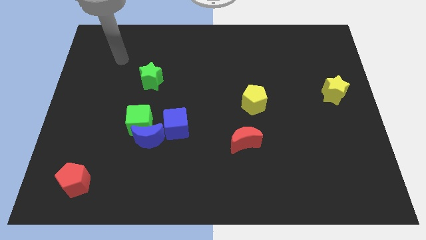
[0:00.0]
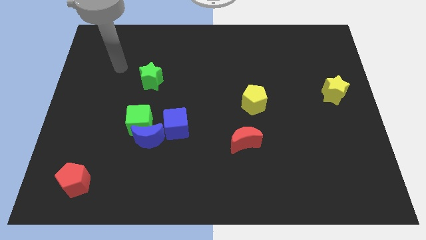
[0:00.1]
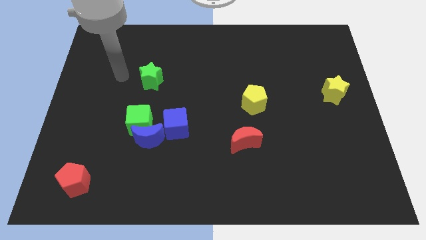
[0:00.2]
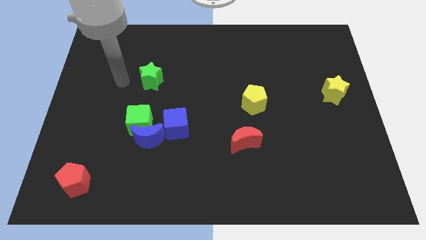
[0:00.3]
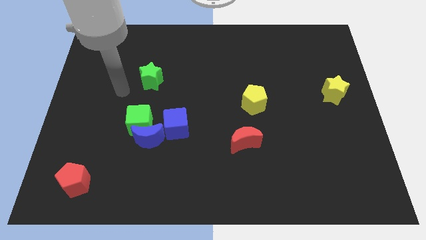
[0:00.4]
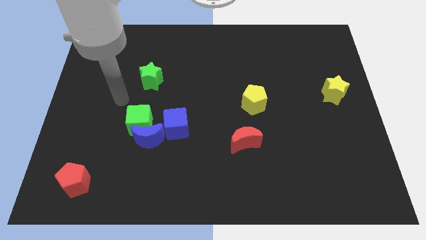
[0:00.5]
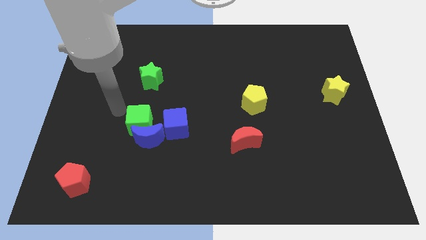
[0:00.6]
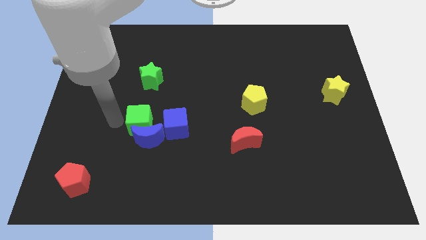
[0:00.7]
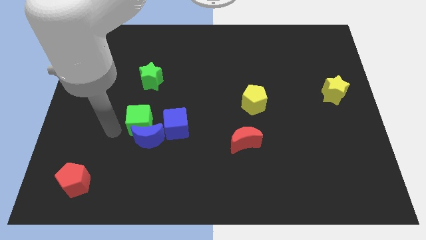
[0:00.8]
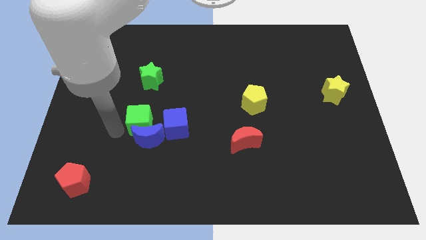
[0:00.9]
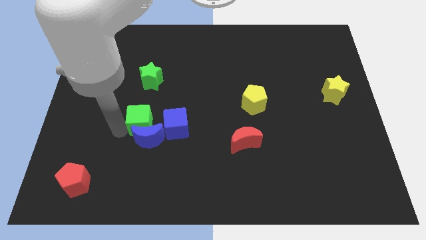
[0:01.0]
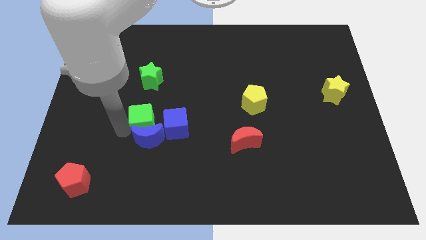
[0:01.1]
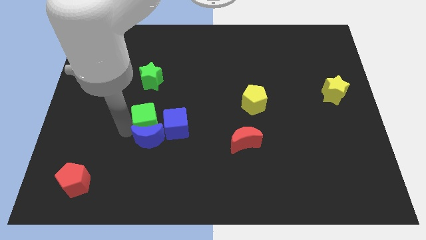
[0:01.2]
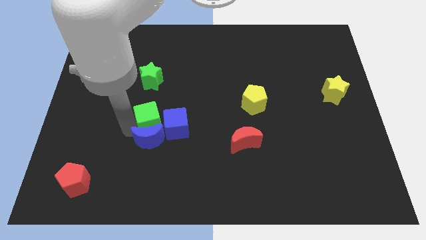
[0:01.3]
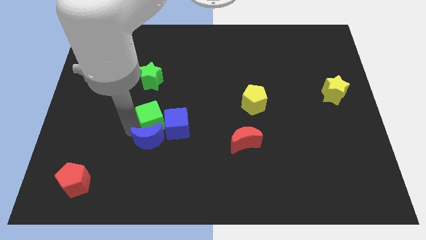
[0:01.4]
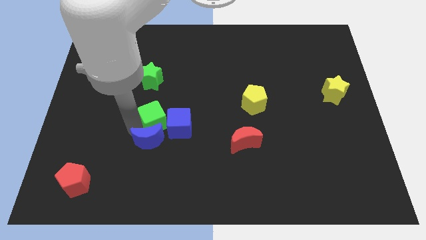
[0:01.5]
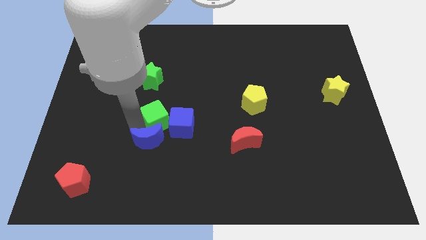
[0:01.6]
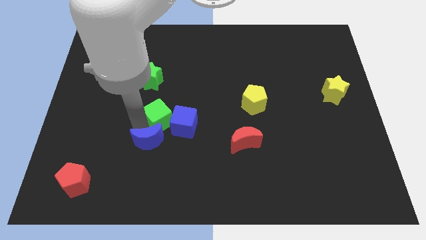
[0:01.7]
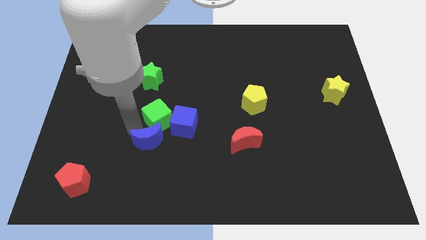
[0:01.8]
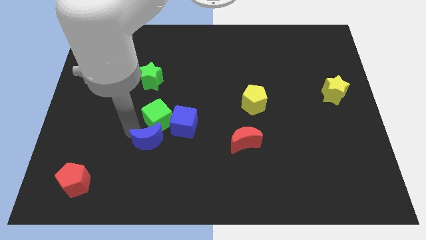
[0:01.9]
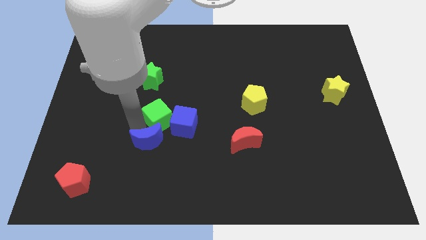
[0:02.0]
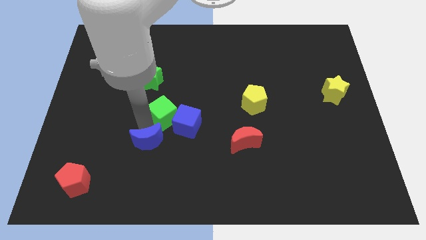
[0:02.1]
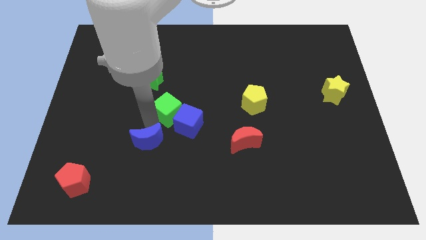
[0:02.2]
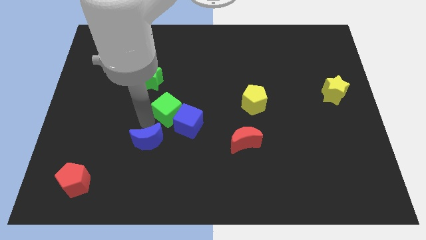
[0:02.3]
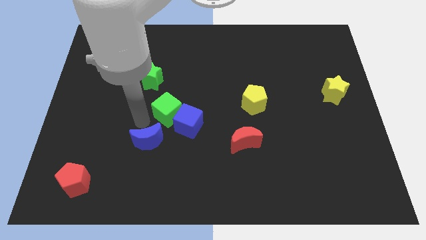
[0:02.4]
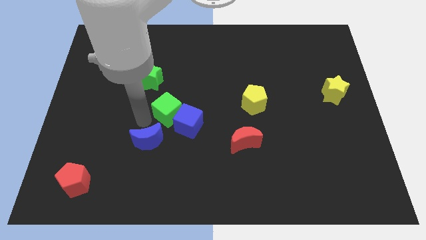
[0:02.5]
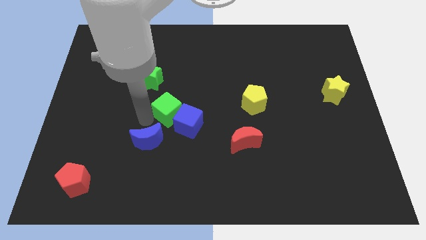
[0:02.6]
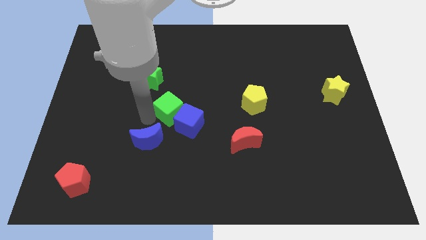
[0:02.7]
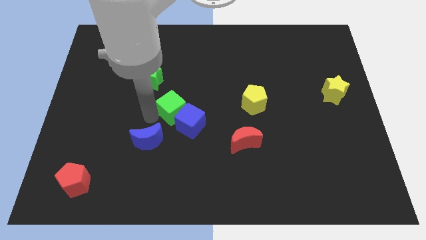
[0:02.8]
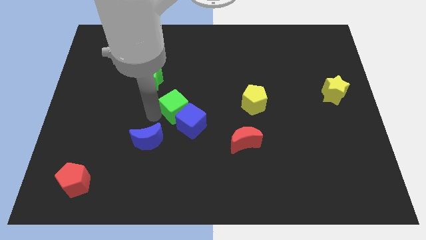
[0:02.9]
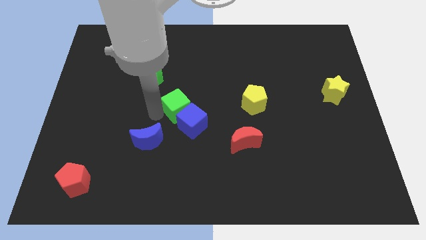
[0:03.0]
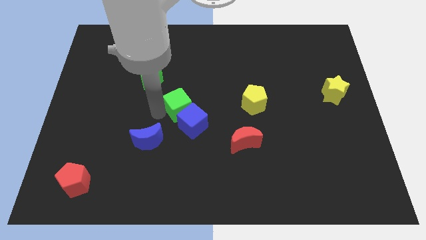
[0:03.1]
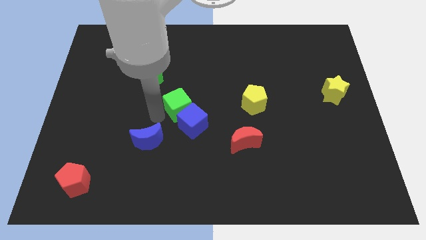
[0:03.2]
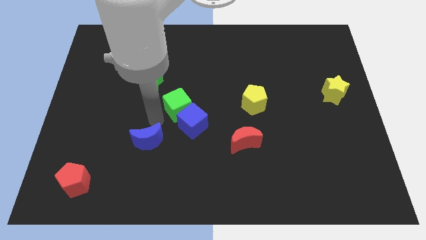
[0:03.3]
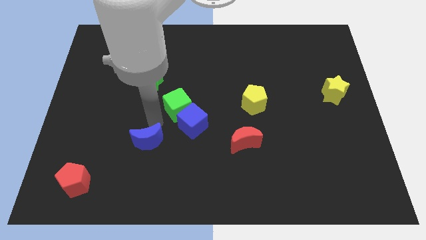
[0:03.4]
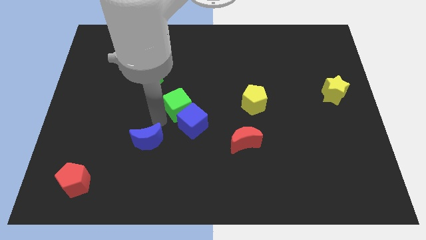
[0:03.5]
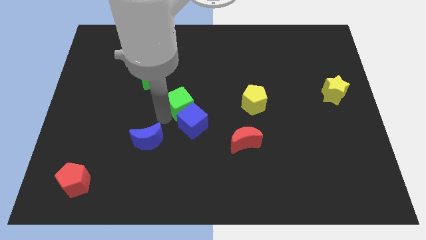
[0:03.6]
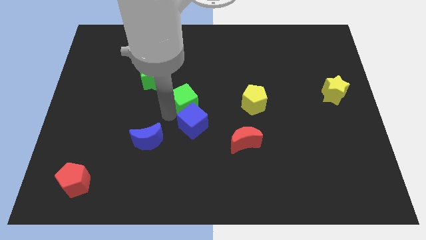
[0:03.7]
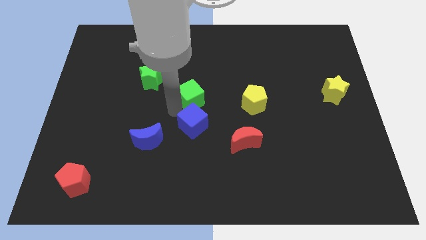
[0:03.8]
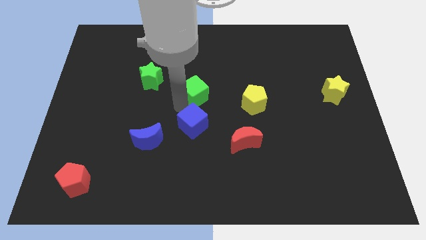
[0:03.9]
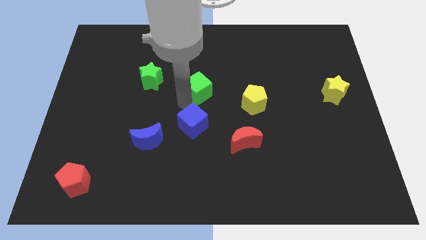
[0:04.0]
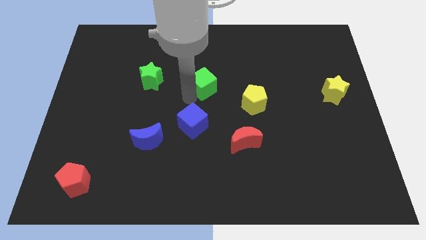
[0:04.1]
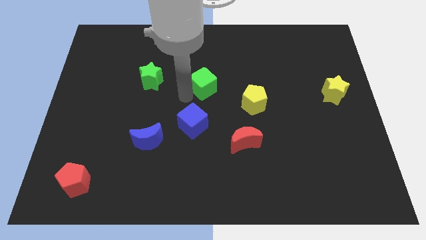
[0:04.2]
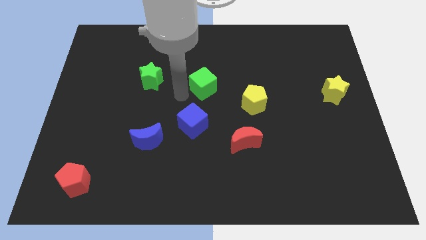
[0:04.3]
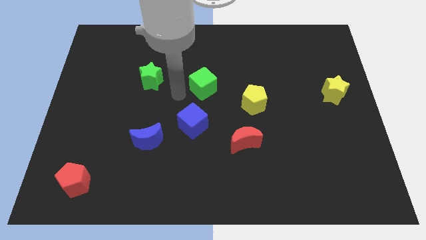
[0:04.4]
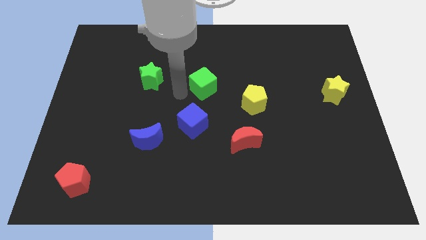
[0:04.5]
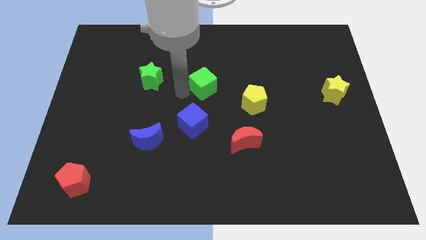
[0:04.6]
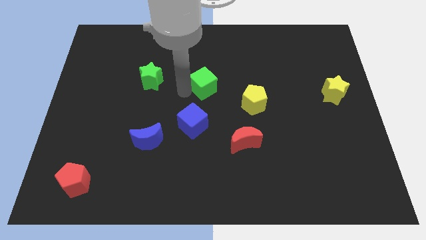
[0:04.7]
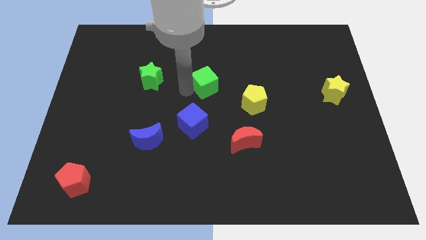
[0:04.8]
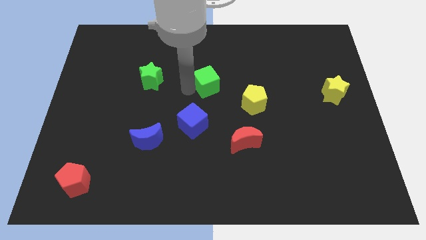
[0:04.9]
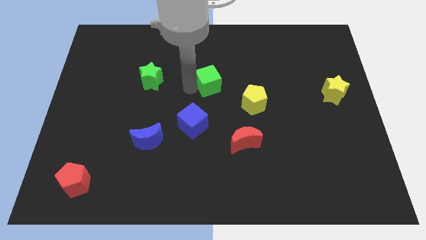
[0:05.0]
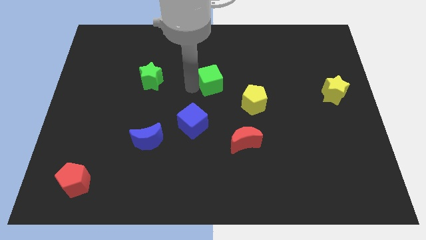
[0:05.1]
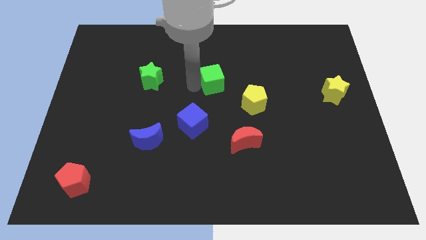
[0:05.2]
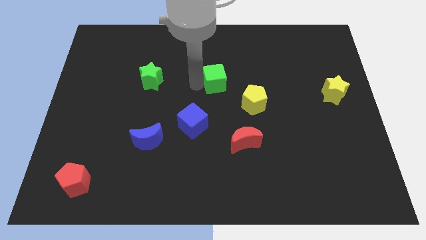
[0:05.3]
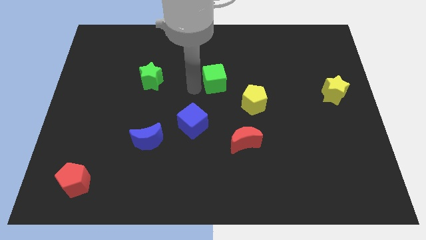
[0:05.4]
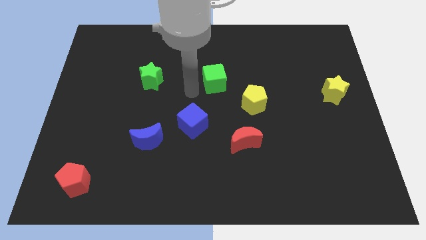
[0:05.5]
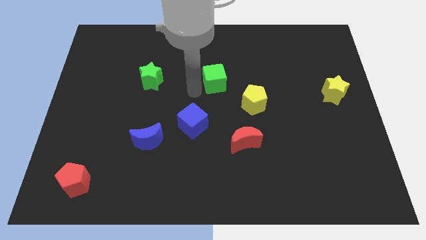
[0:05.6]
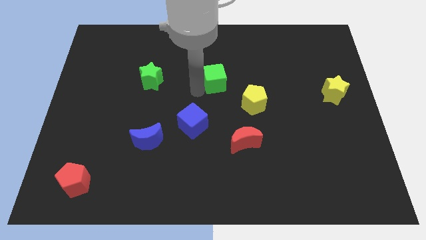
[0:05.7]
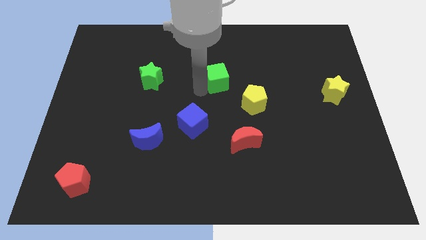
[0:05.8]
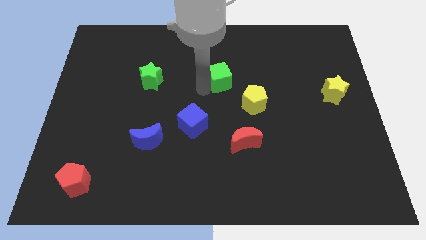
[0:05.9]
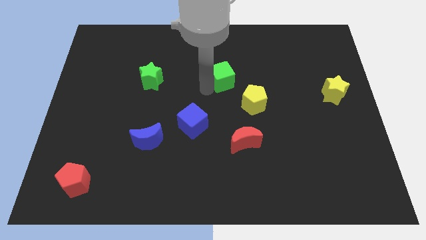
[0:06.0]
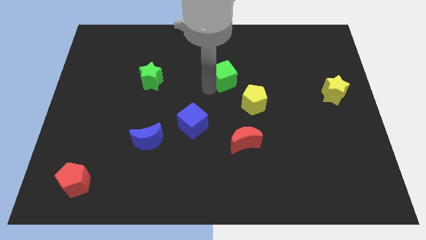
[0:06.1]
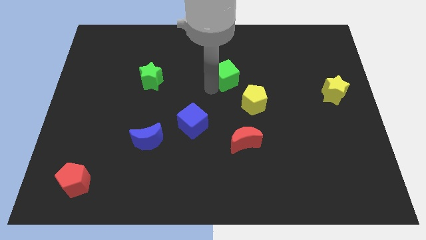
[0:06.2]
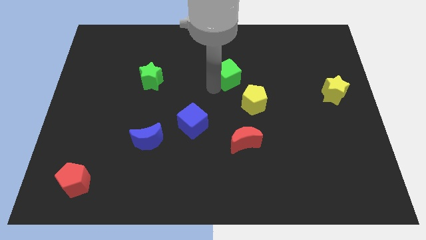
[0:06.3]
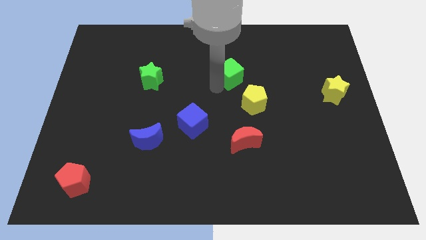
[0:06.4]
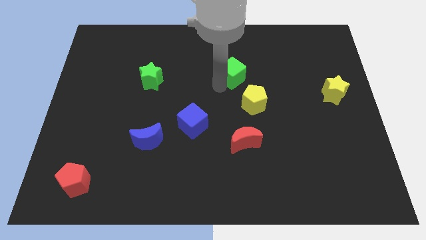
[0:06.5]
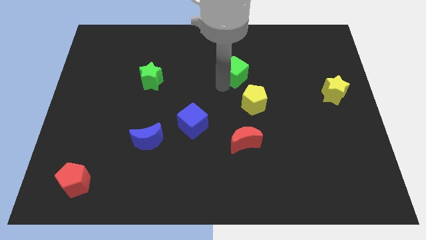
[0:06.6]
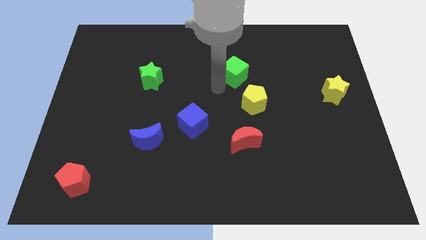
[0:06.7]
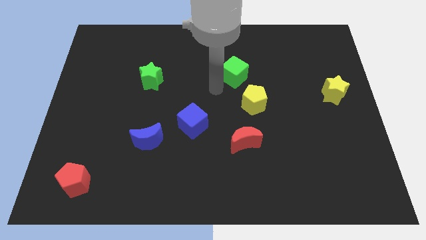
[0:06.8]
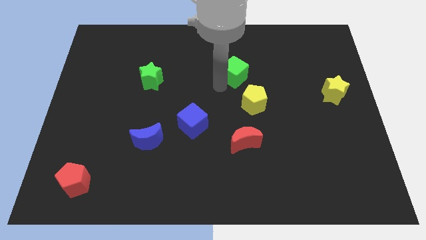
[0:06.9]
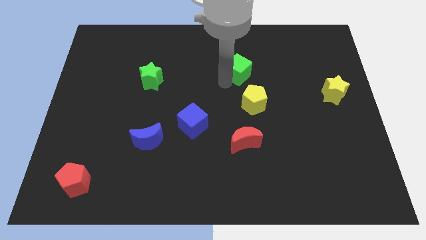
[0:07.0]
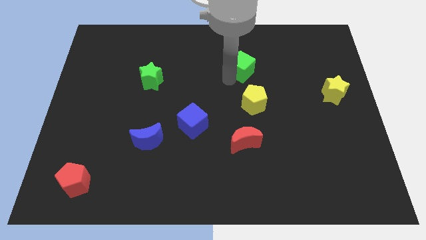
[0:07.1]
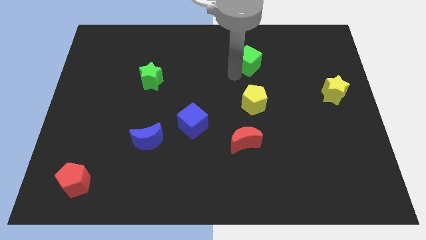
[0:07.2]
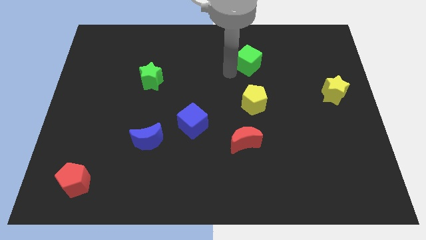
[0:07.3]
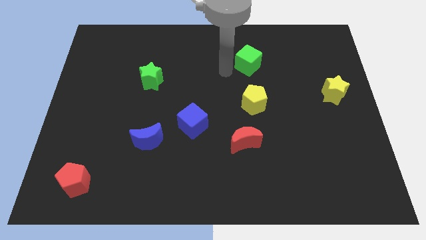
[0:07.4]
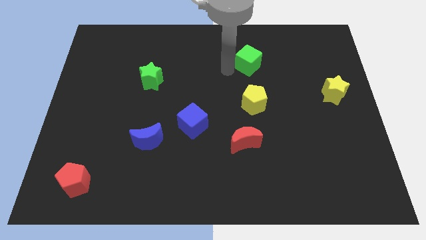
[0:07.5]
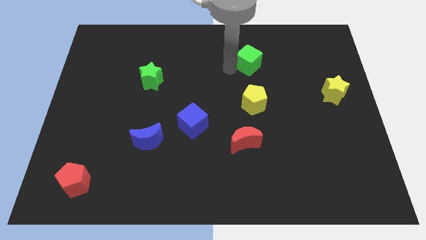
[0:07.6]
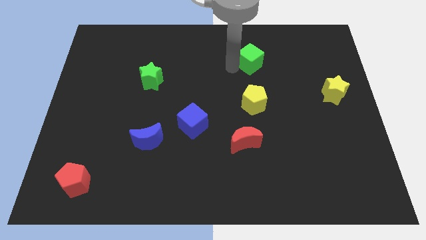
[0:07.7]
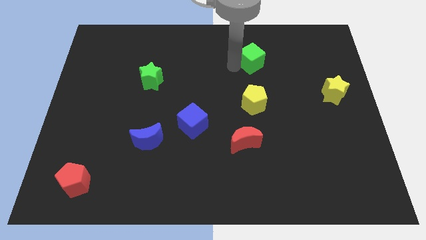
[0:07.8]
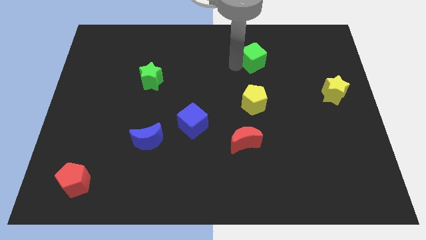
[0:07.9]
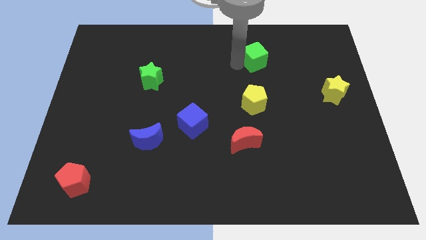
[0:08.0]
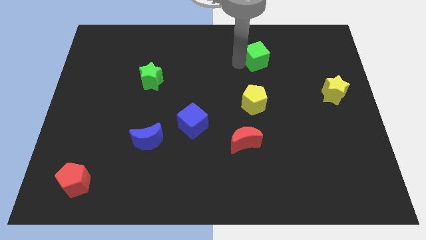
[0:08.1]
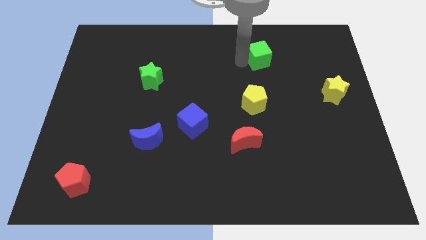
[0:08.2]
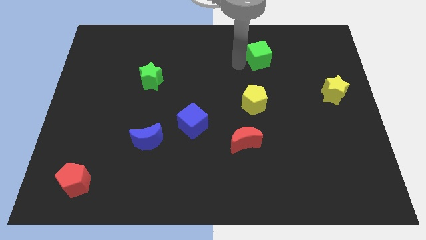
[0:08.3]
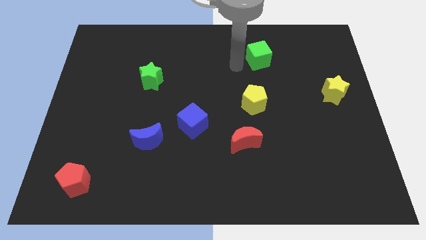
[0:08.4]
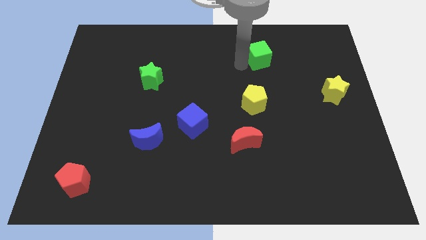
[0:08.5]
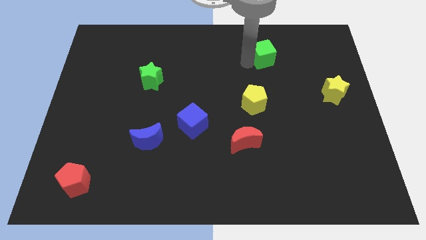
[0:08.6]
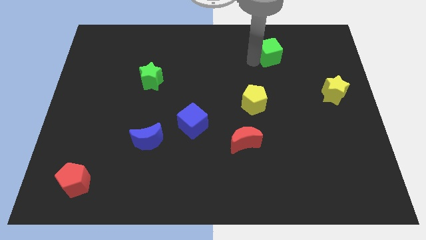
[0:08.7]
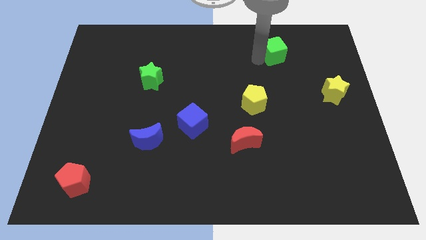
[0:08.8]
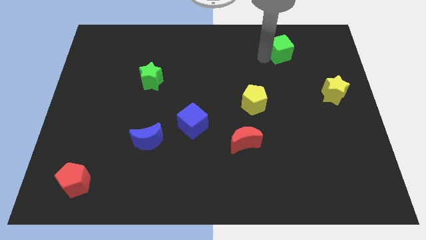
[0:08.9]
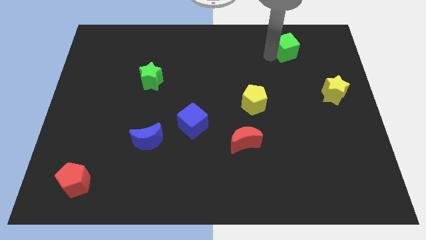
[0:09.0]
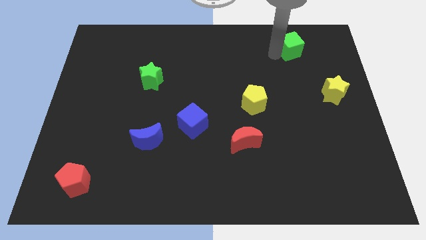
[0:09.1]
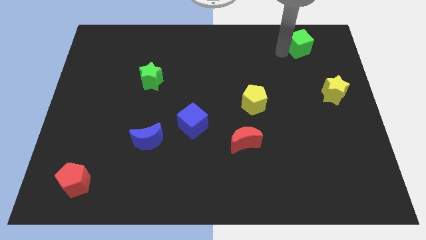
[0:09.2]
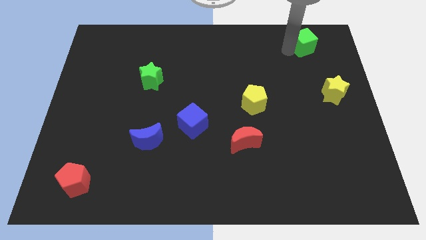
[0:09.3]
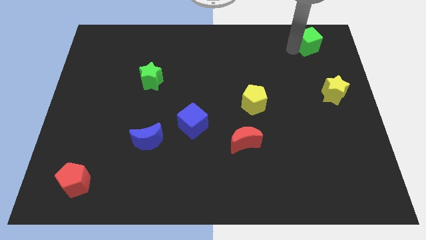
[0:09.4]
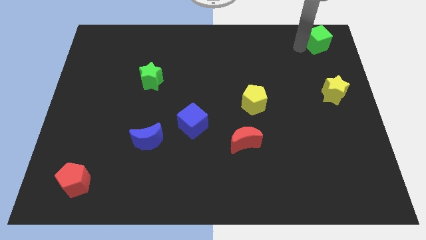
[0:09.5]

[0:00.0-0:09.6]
slide the green cube to the top right corner
